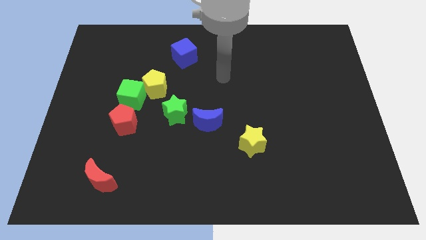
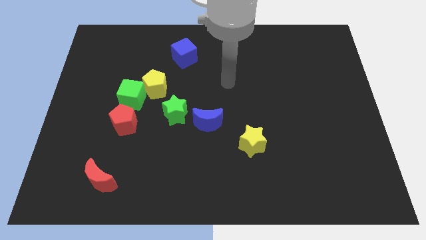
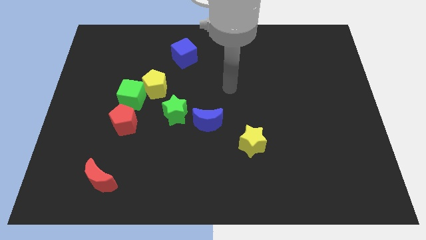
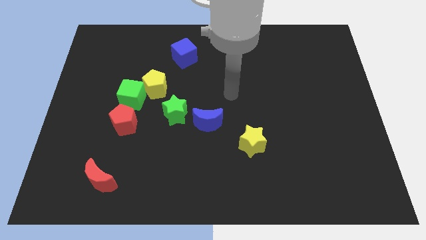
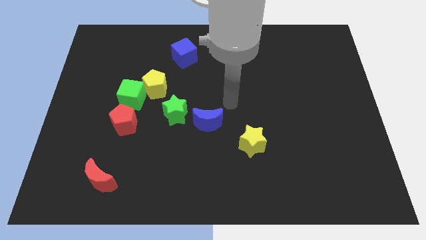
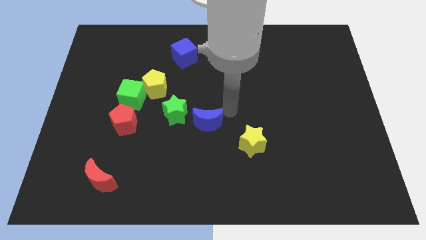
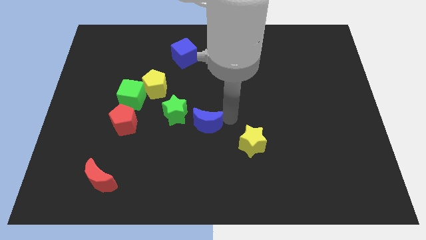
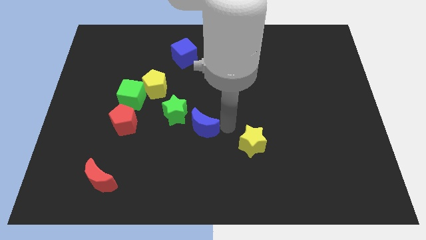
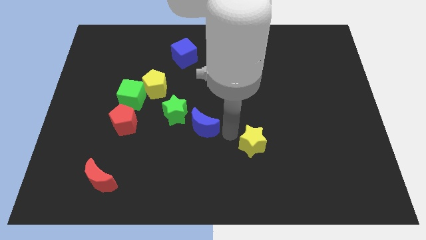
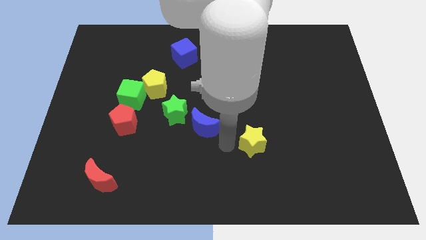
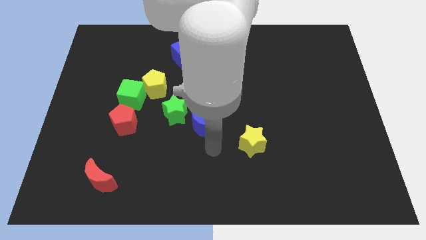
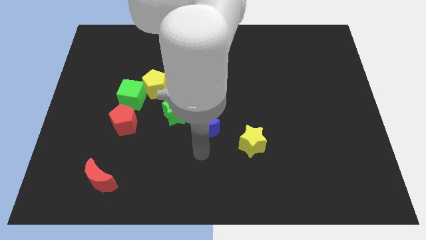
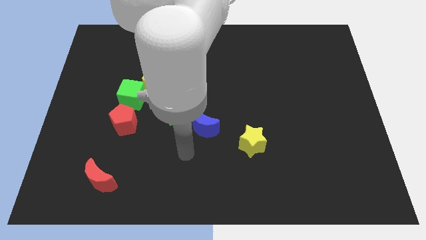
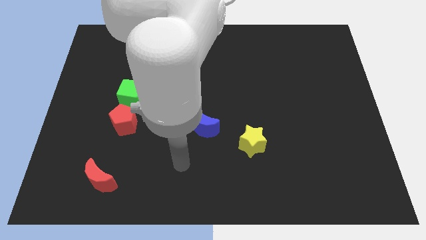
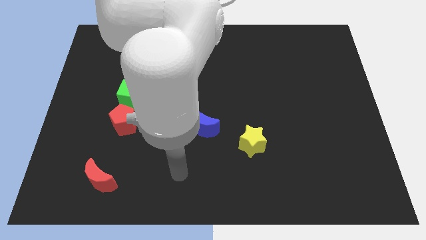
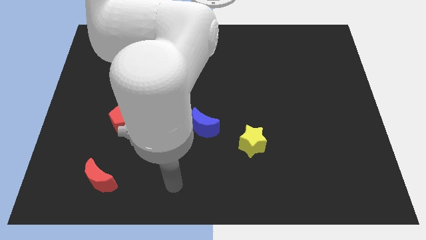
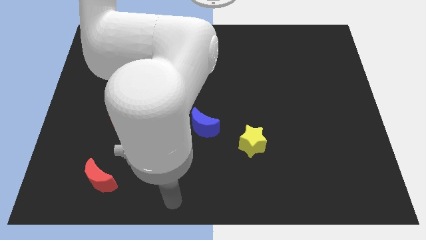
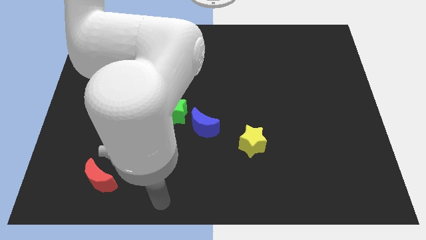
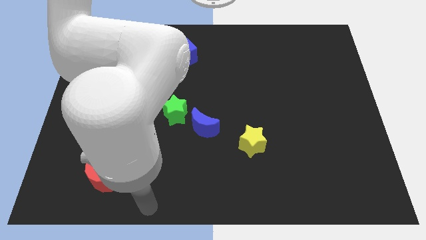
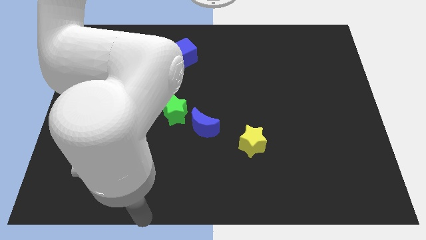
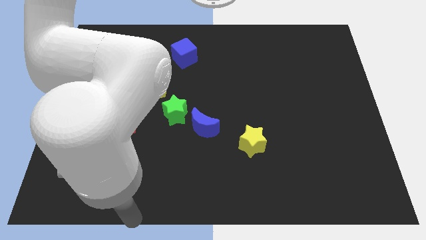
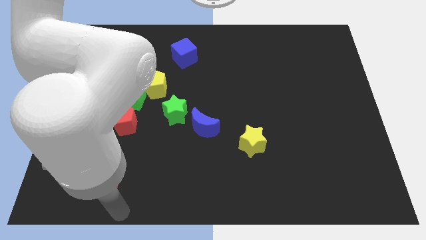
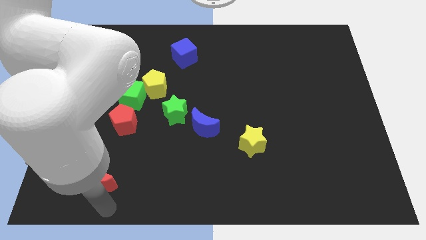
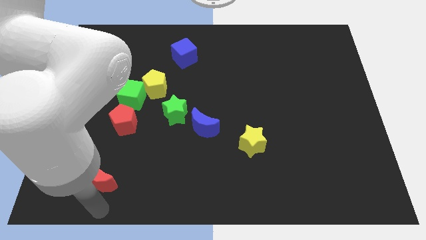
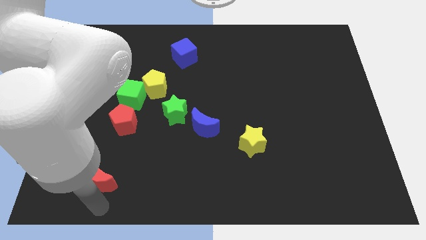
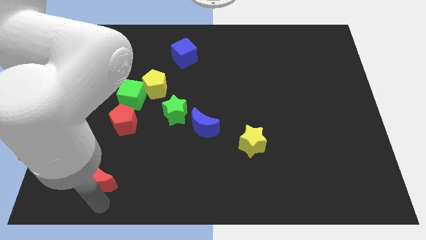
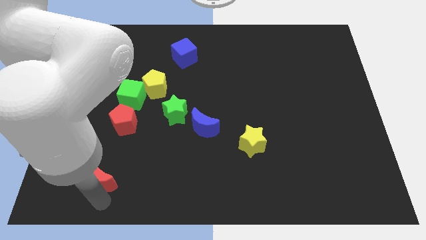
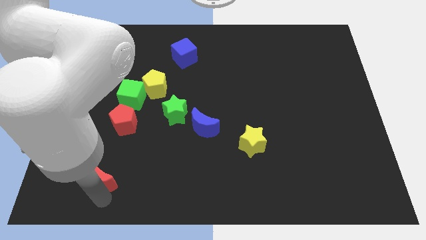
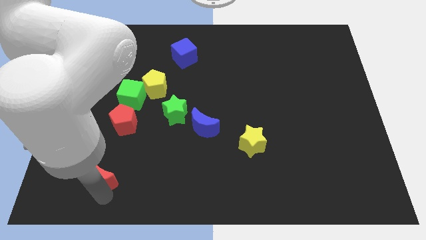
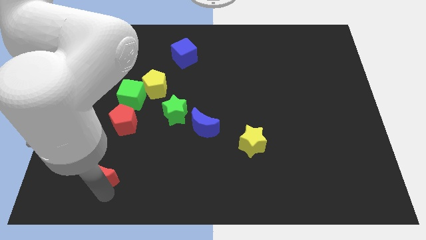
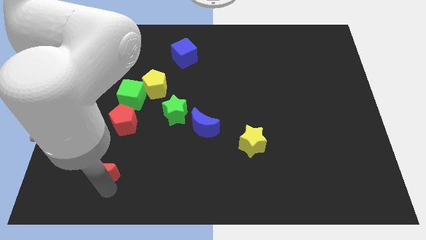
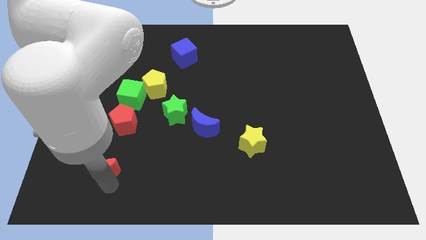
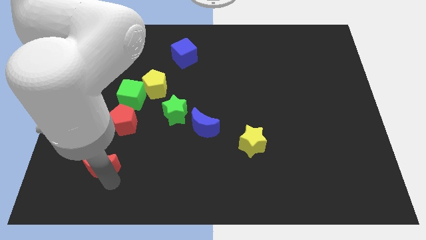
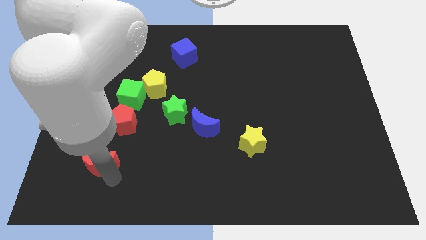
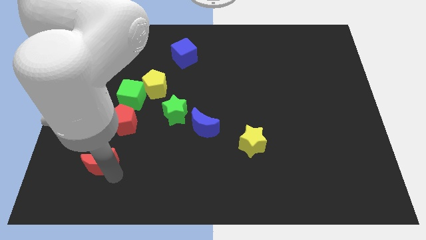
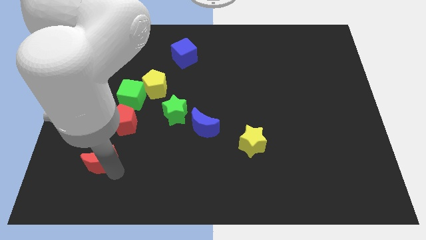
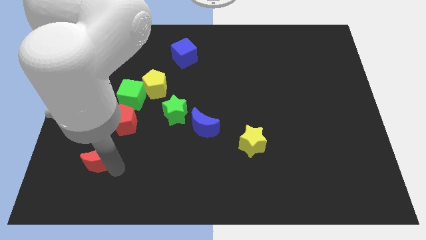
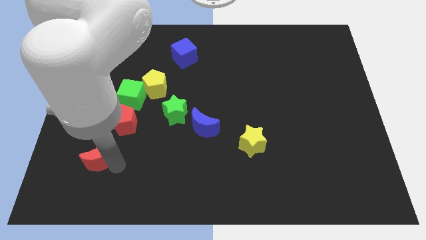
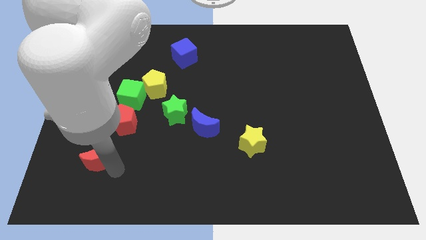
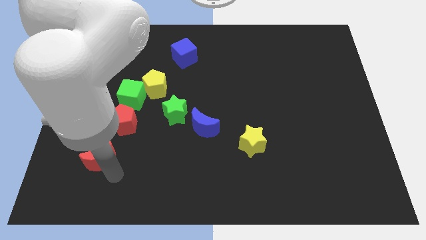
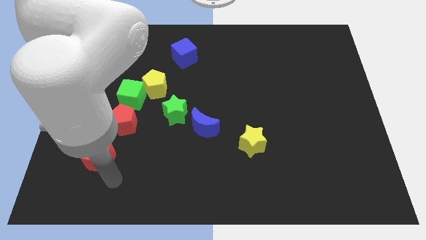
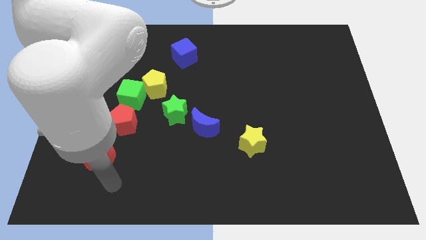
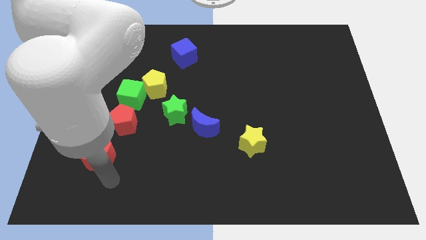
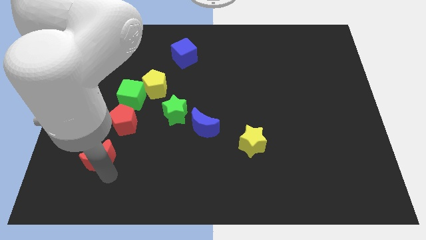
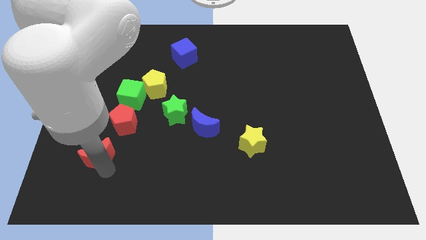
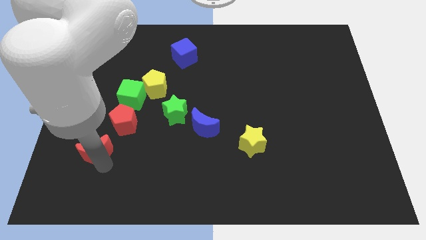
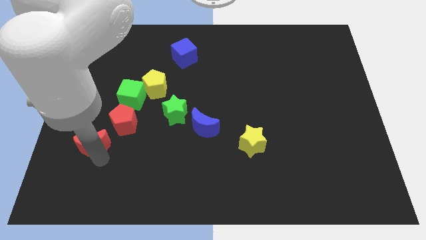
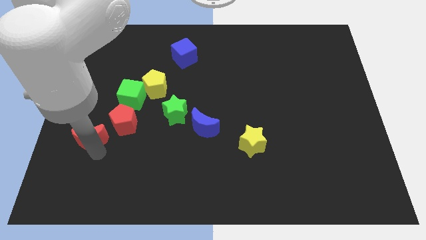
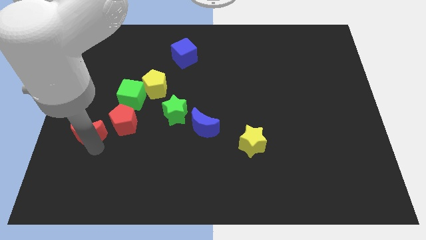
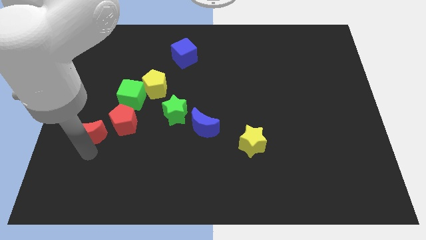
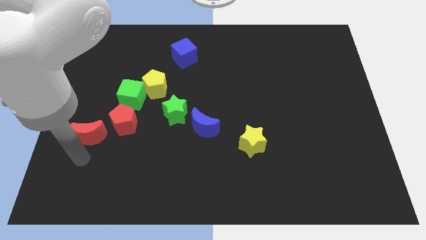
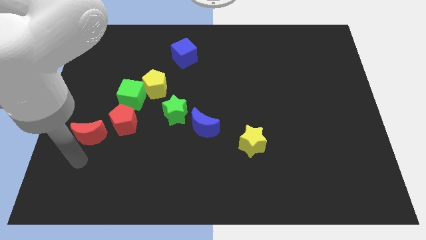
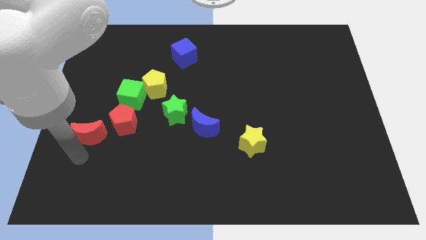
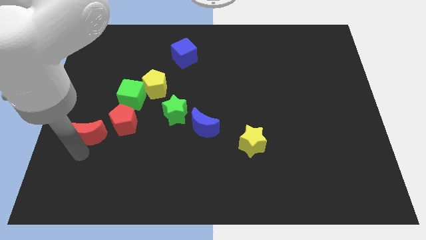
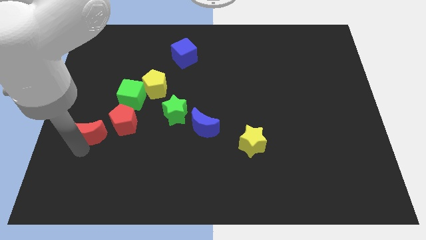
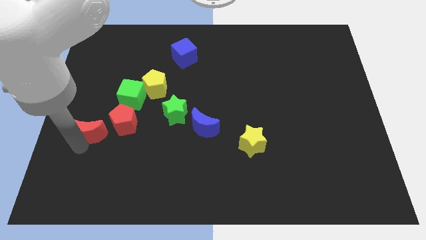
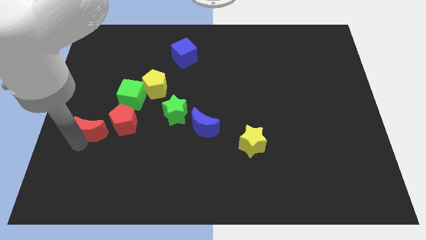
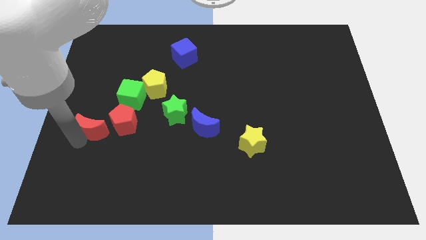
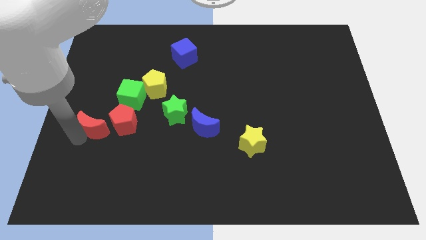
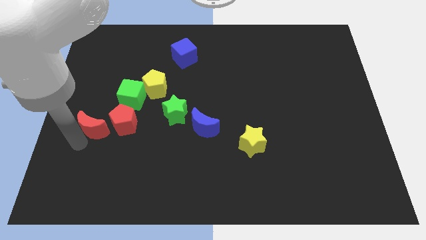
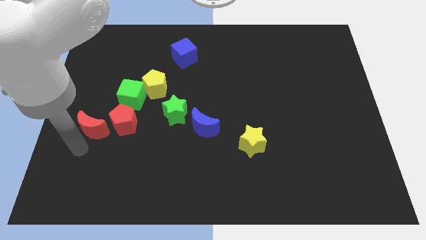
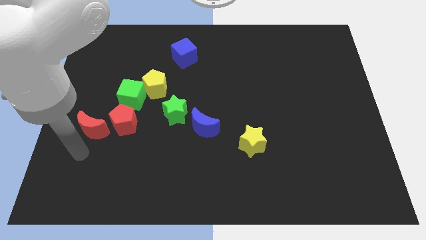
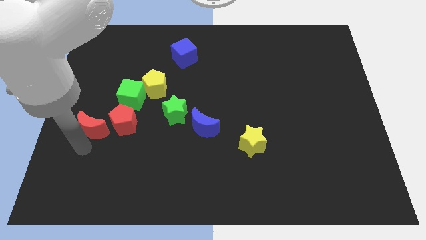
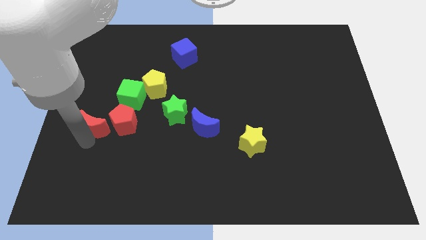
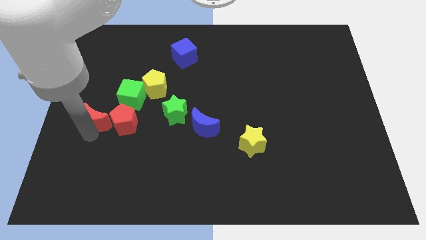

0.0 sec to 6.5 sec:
slide the red moon diagonally up and to the left of the red pentagon
